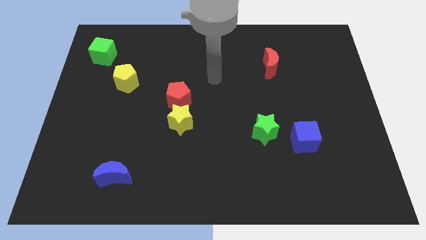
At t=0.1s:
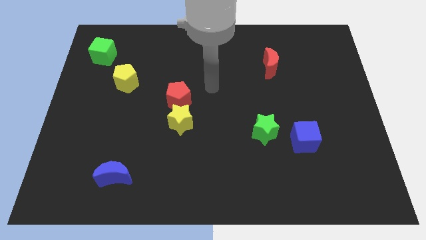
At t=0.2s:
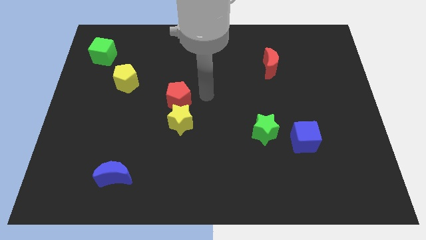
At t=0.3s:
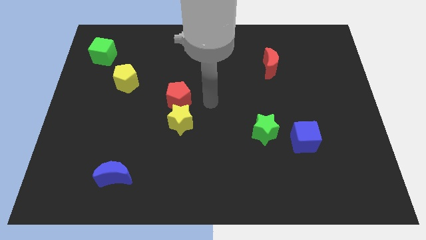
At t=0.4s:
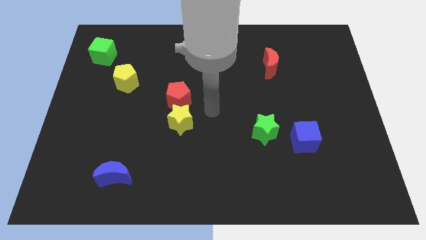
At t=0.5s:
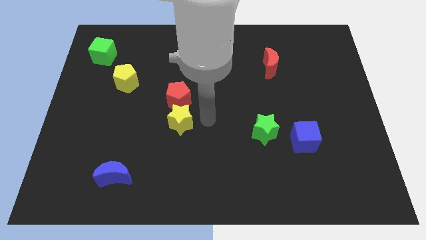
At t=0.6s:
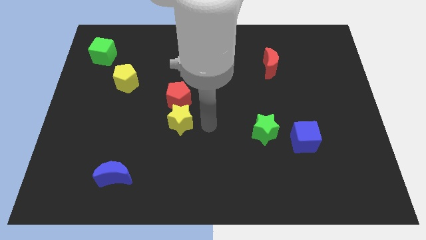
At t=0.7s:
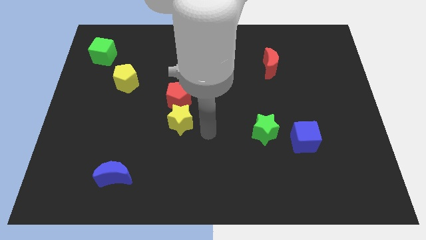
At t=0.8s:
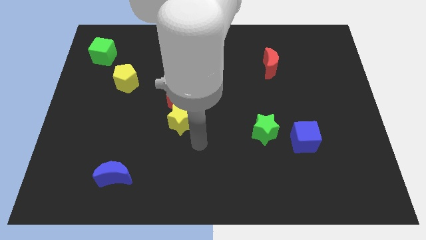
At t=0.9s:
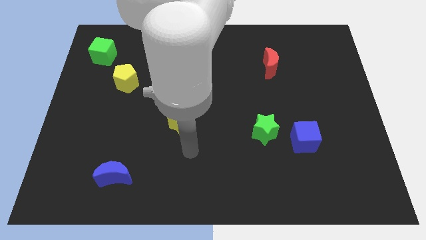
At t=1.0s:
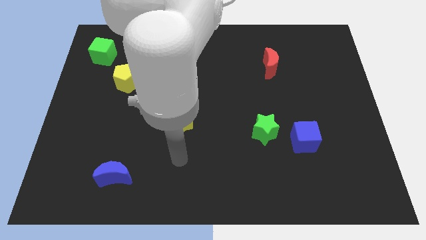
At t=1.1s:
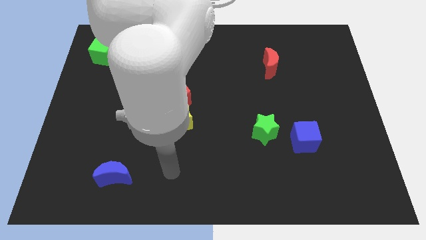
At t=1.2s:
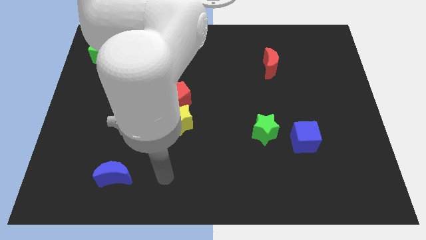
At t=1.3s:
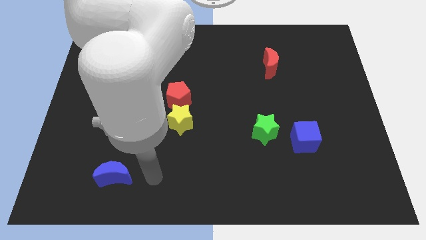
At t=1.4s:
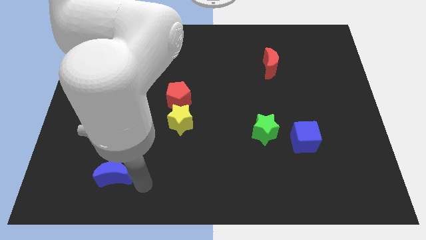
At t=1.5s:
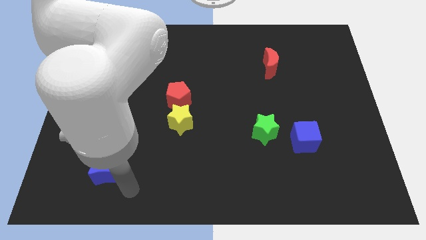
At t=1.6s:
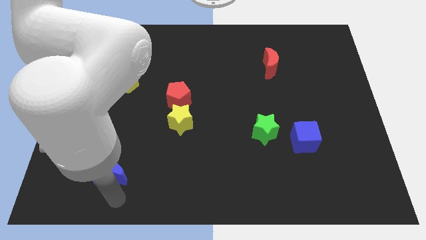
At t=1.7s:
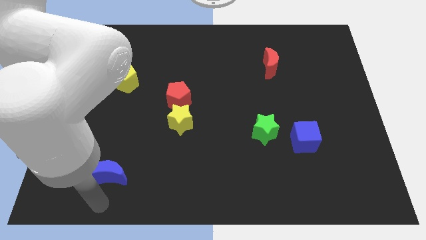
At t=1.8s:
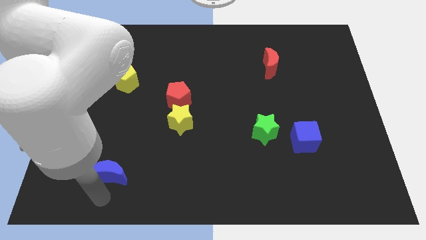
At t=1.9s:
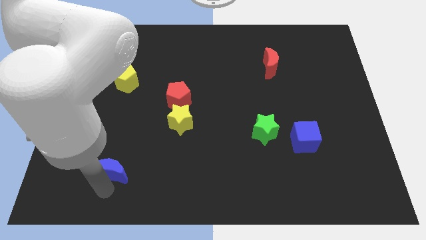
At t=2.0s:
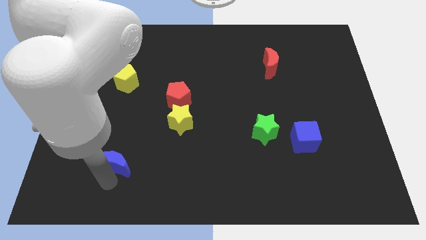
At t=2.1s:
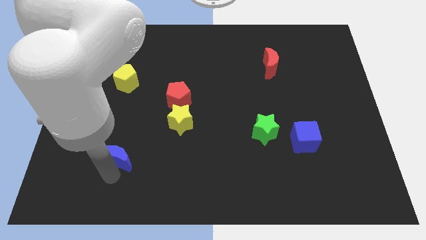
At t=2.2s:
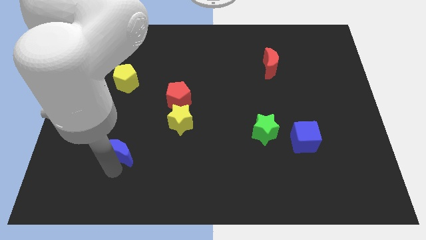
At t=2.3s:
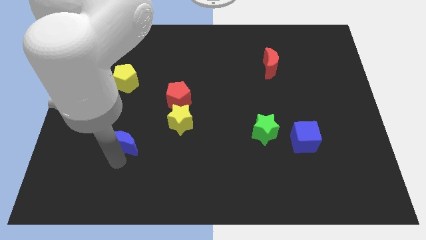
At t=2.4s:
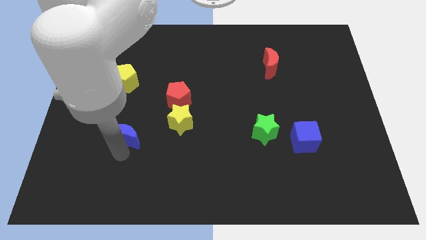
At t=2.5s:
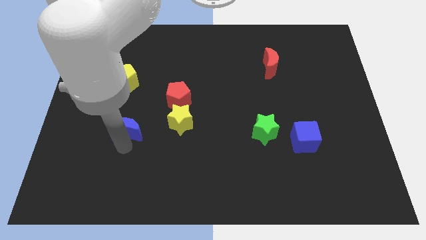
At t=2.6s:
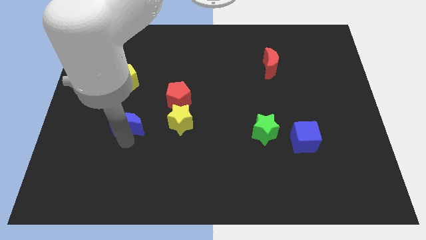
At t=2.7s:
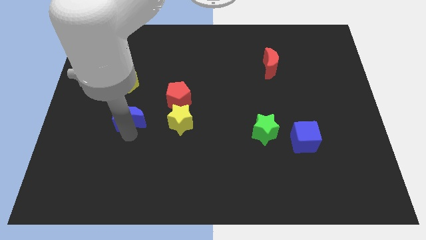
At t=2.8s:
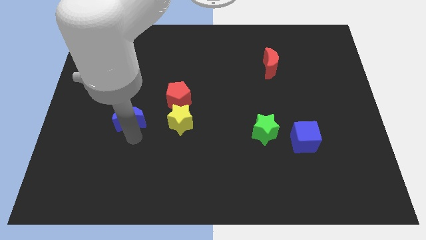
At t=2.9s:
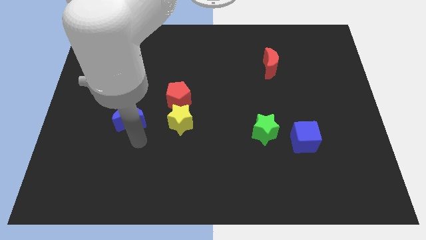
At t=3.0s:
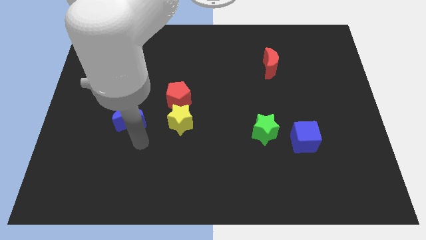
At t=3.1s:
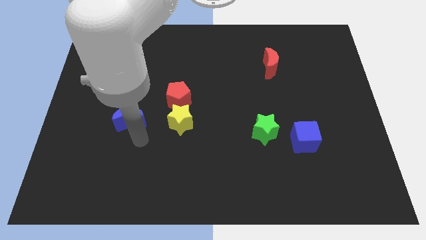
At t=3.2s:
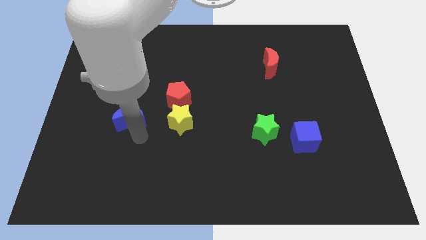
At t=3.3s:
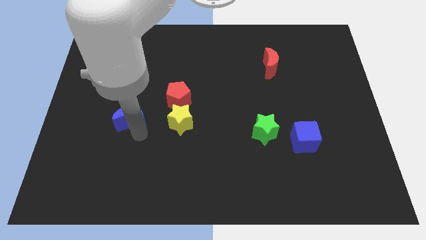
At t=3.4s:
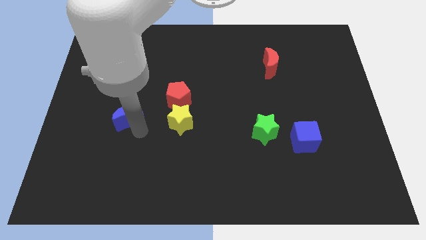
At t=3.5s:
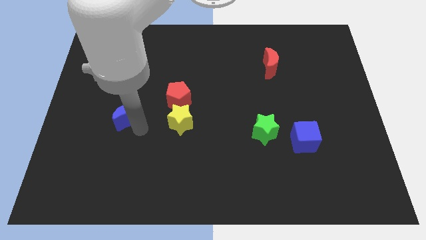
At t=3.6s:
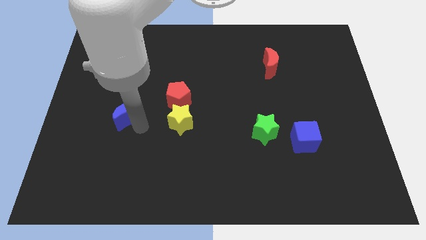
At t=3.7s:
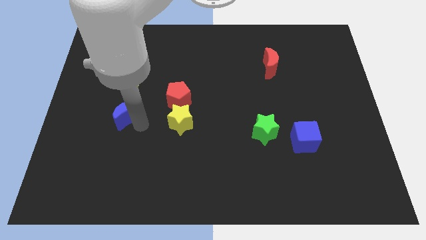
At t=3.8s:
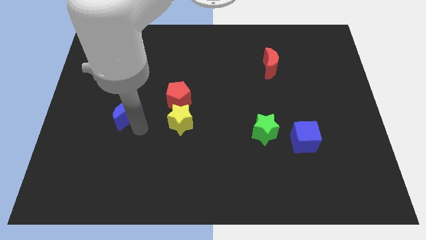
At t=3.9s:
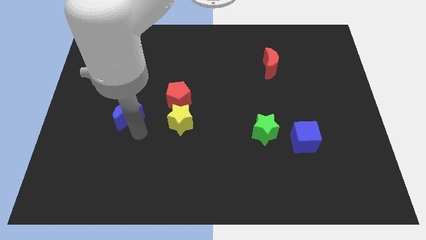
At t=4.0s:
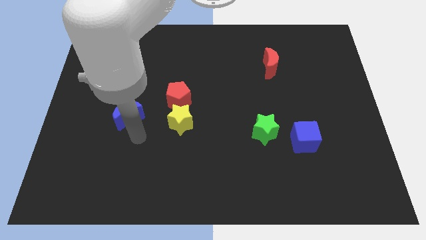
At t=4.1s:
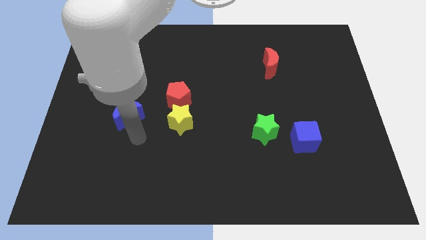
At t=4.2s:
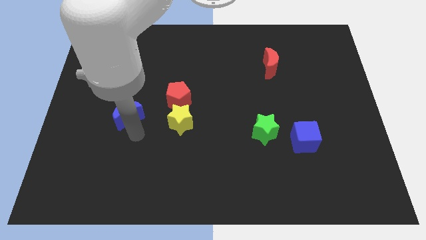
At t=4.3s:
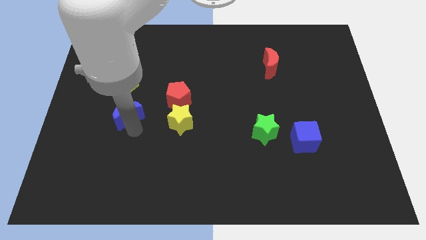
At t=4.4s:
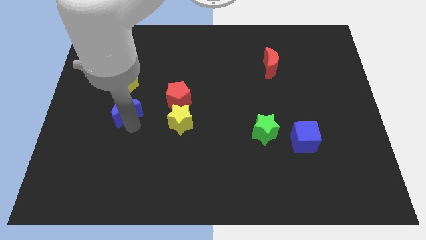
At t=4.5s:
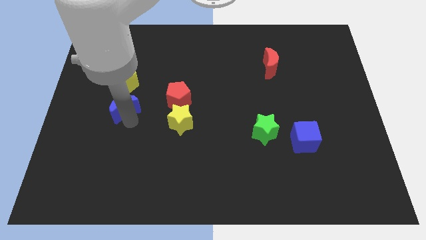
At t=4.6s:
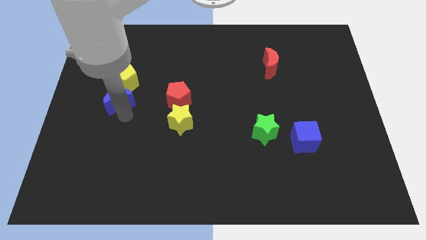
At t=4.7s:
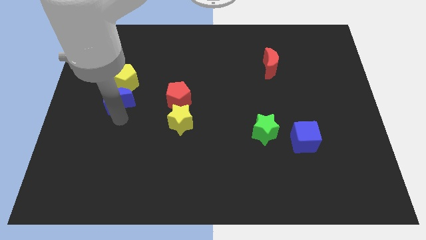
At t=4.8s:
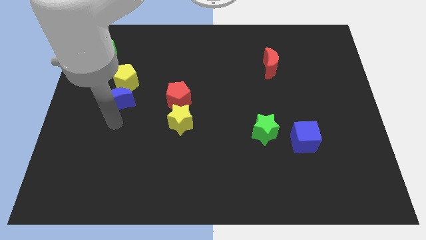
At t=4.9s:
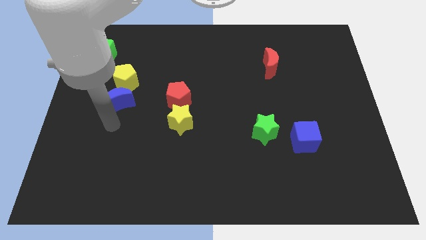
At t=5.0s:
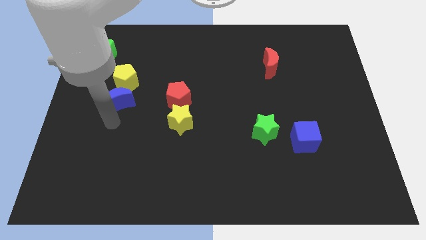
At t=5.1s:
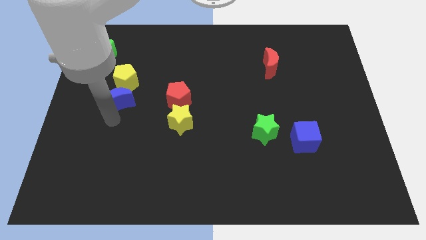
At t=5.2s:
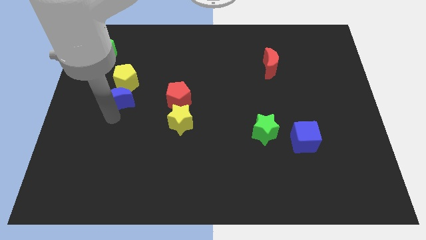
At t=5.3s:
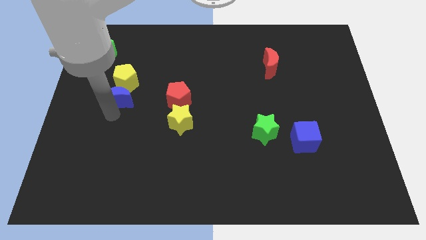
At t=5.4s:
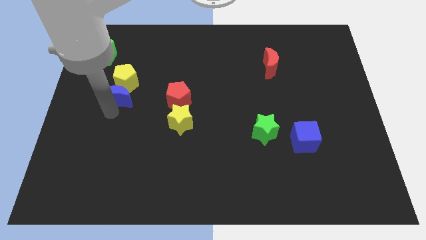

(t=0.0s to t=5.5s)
move the blue moon to the yellow pentagon

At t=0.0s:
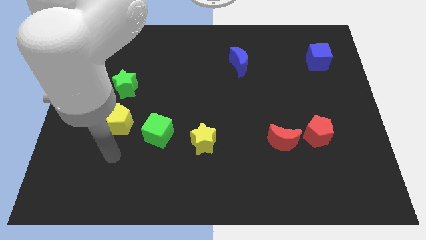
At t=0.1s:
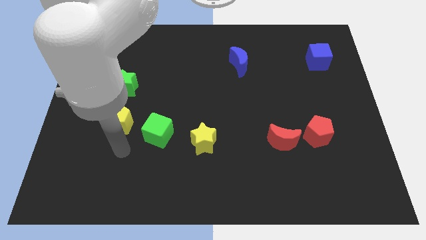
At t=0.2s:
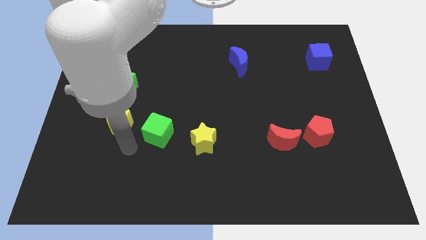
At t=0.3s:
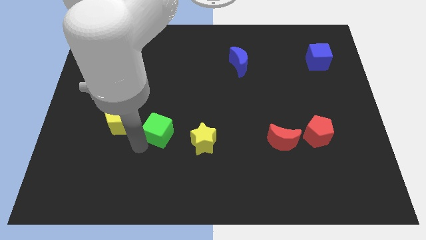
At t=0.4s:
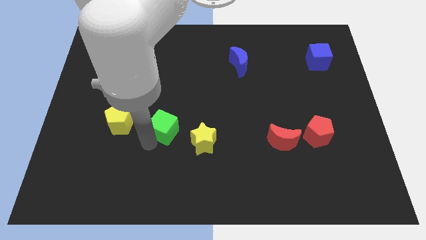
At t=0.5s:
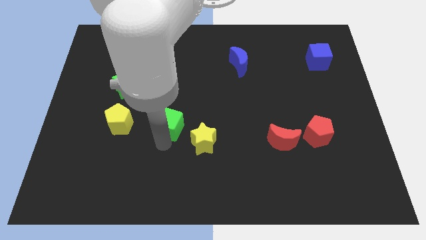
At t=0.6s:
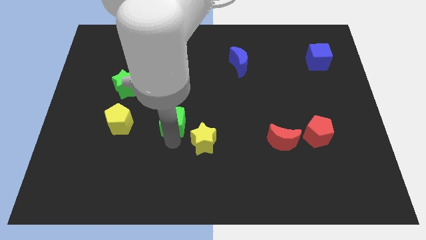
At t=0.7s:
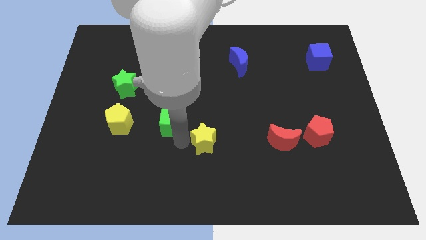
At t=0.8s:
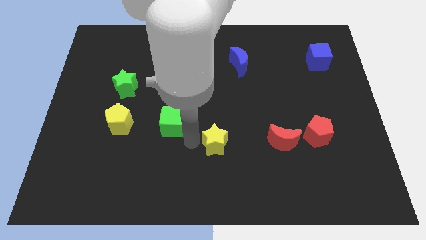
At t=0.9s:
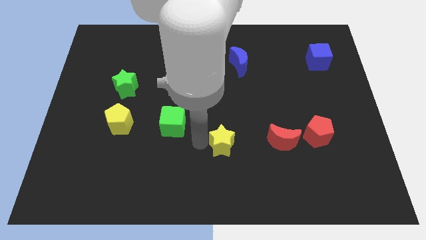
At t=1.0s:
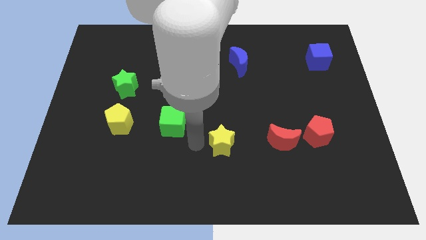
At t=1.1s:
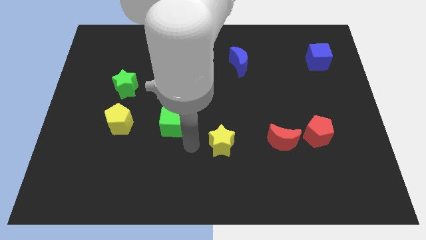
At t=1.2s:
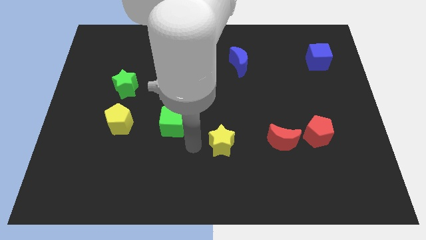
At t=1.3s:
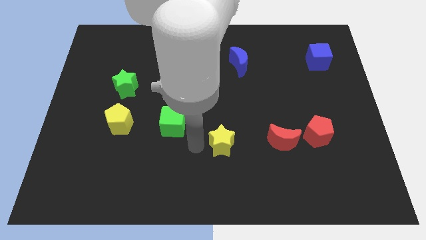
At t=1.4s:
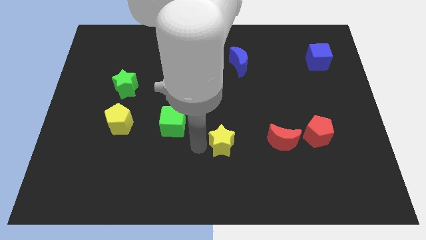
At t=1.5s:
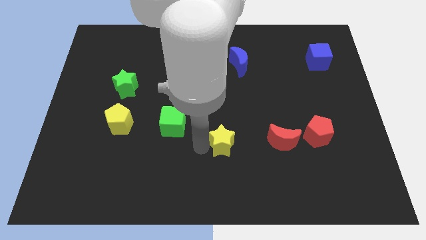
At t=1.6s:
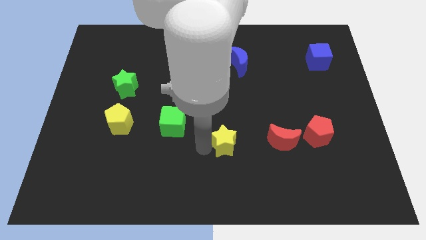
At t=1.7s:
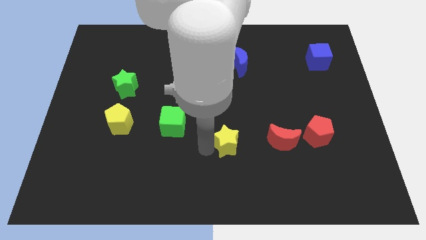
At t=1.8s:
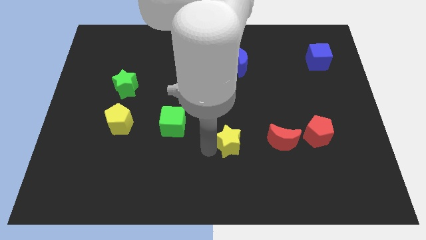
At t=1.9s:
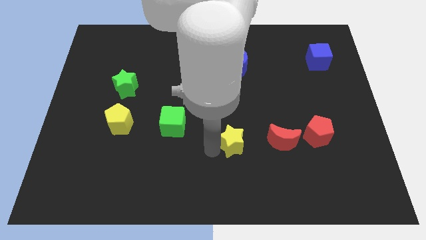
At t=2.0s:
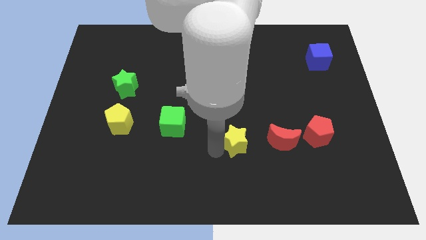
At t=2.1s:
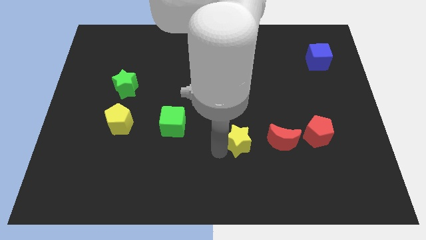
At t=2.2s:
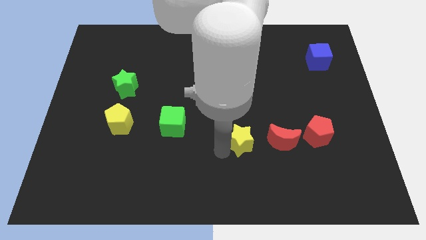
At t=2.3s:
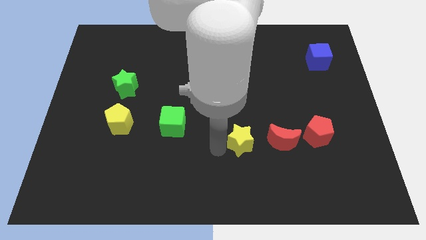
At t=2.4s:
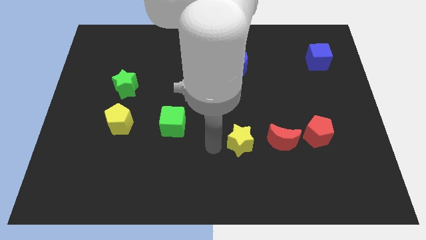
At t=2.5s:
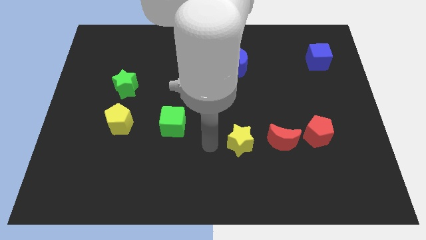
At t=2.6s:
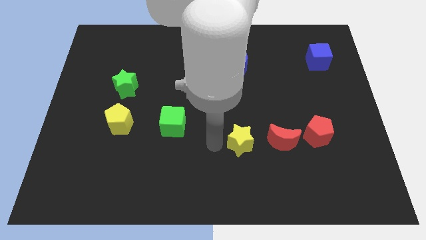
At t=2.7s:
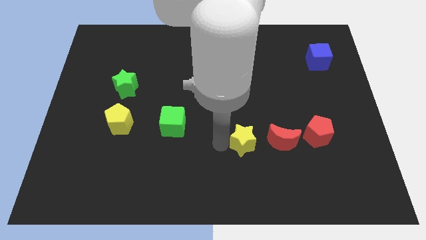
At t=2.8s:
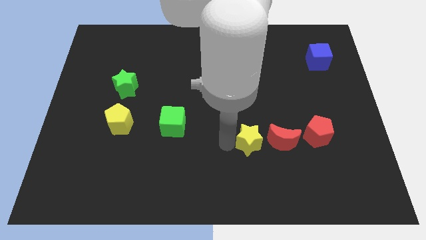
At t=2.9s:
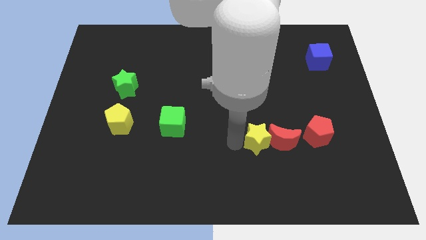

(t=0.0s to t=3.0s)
move the yellow star close to the red moon
